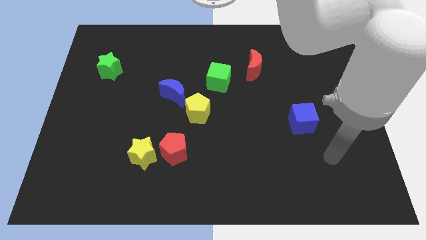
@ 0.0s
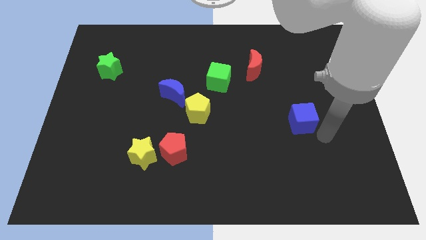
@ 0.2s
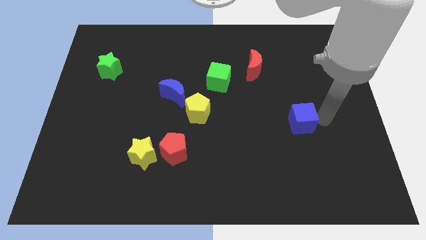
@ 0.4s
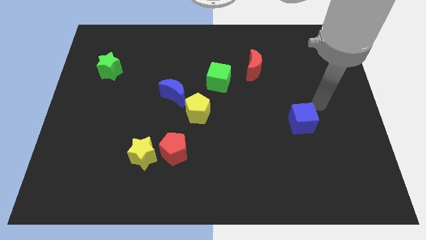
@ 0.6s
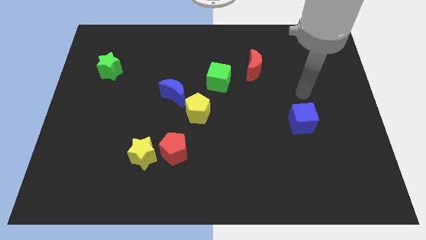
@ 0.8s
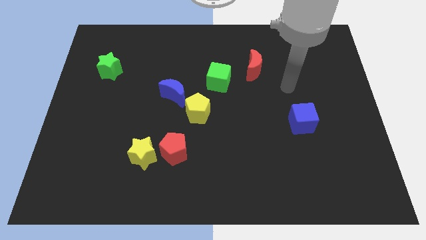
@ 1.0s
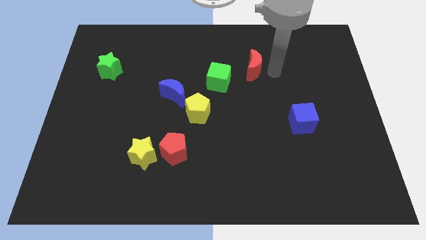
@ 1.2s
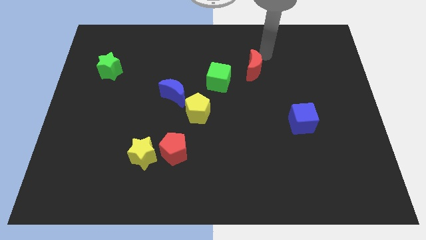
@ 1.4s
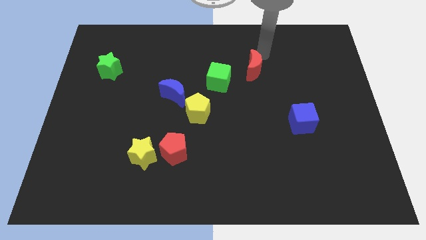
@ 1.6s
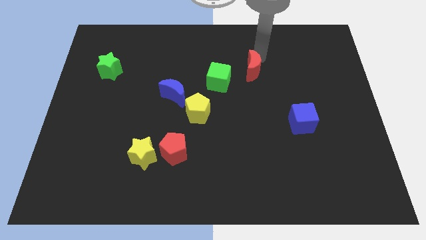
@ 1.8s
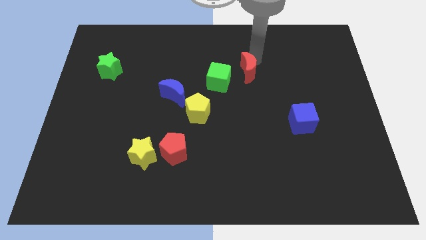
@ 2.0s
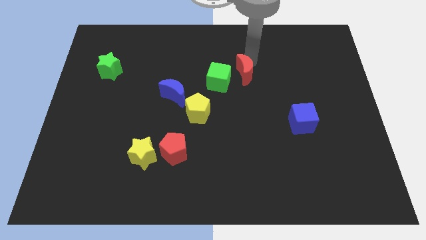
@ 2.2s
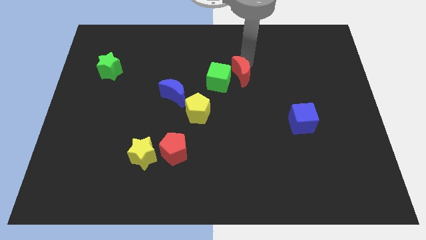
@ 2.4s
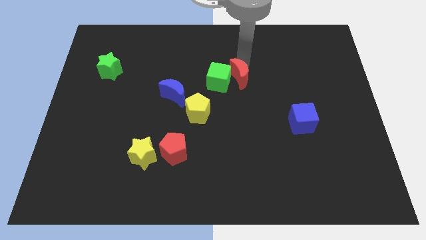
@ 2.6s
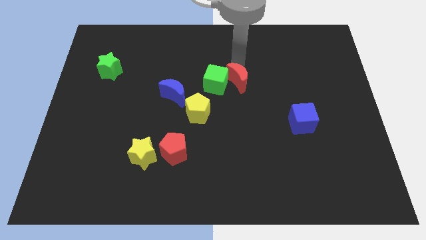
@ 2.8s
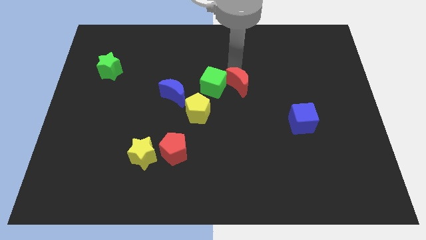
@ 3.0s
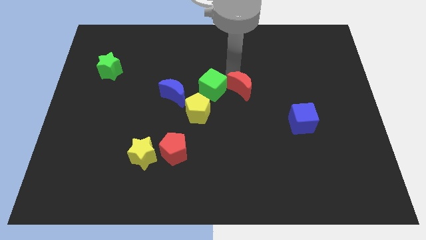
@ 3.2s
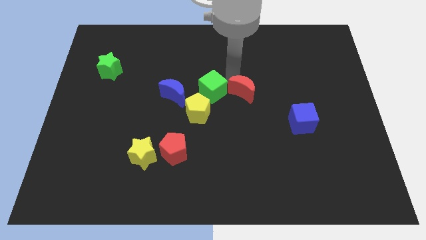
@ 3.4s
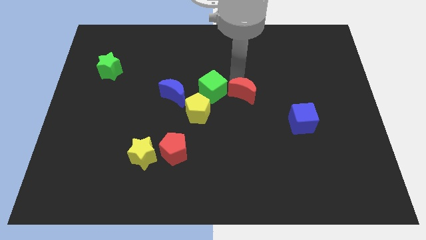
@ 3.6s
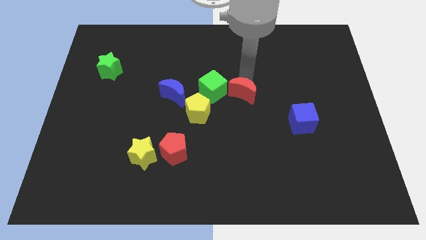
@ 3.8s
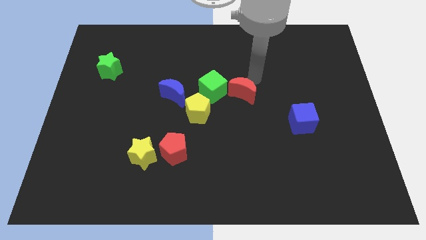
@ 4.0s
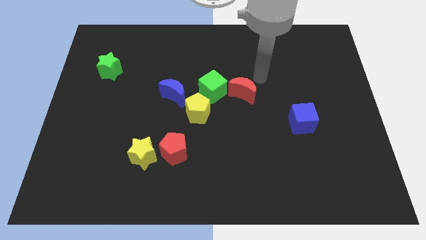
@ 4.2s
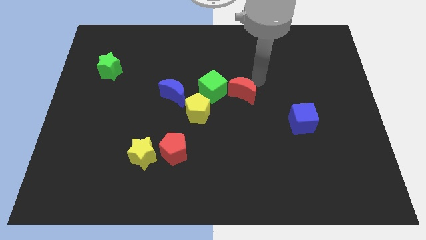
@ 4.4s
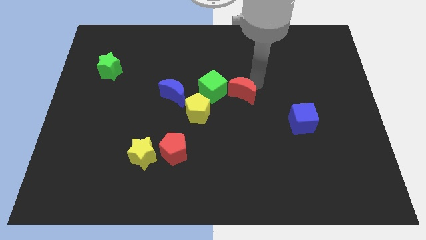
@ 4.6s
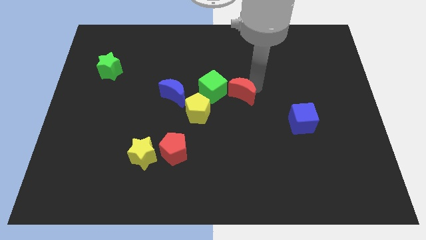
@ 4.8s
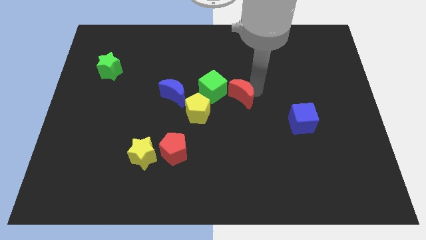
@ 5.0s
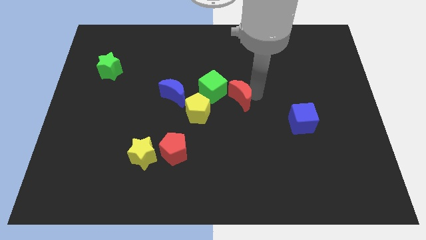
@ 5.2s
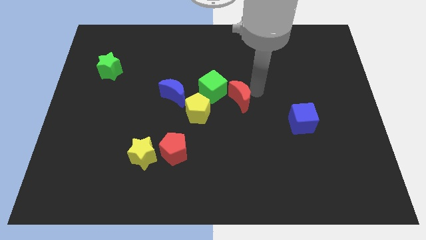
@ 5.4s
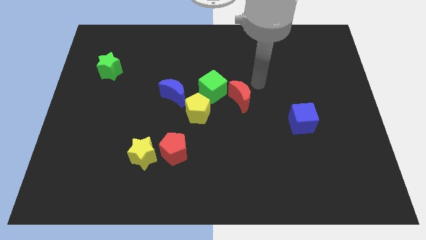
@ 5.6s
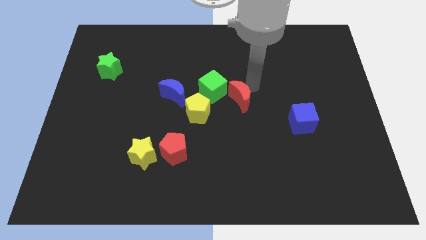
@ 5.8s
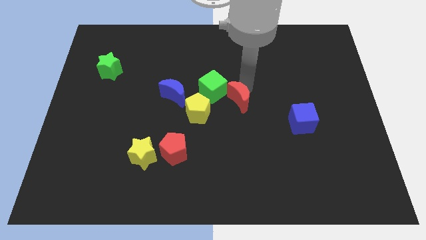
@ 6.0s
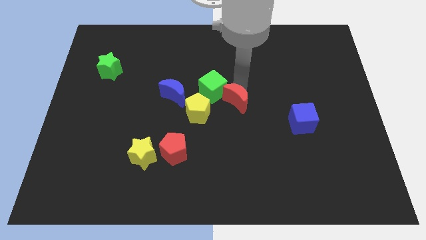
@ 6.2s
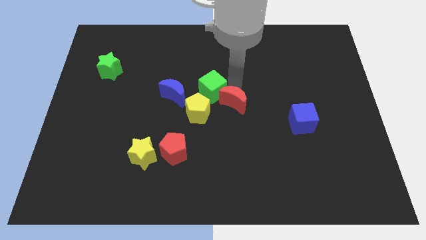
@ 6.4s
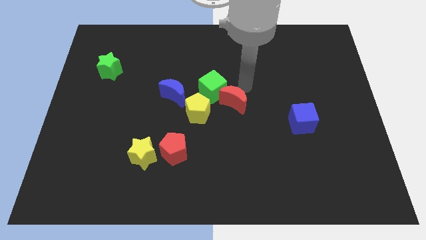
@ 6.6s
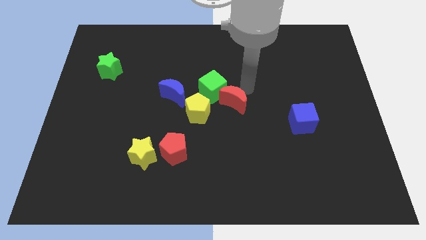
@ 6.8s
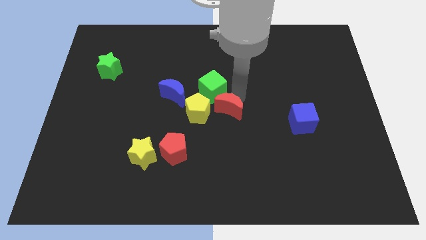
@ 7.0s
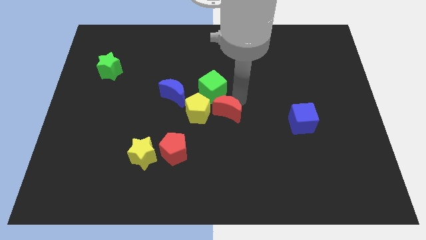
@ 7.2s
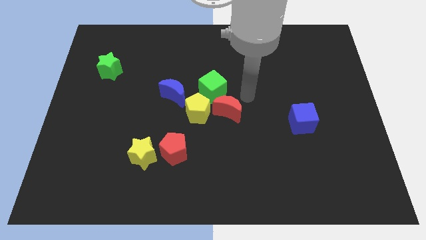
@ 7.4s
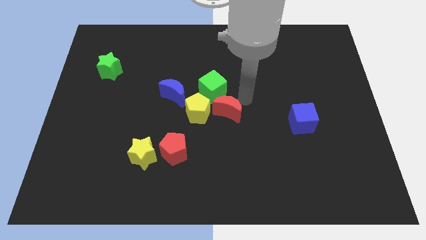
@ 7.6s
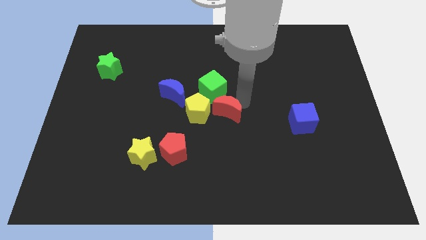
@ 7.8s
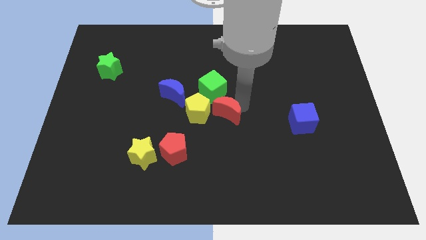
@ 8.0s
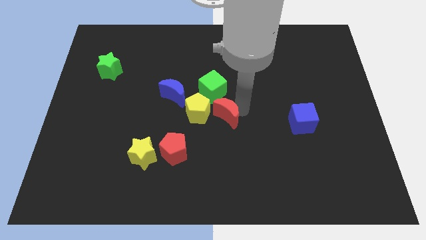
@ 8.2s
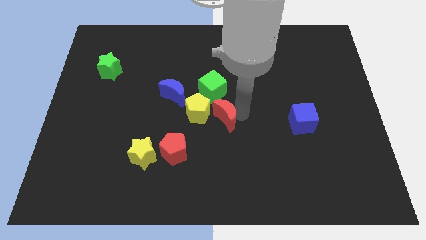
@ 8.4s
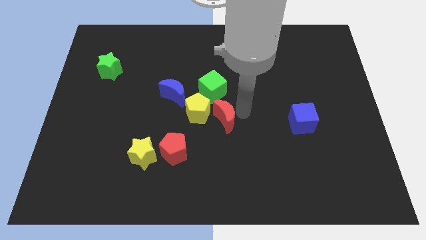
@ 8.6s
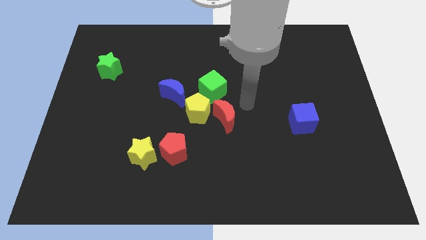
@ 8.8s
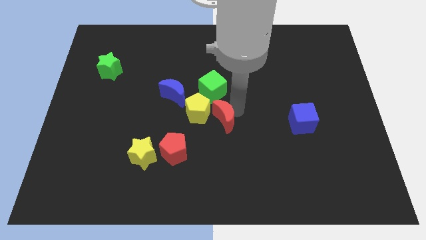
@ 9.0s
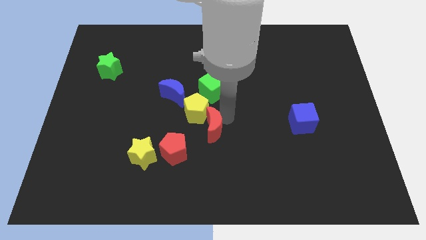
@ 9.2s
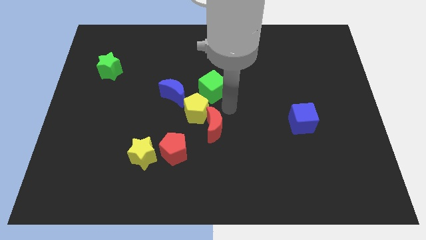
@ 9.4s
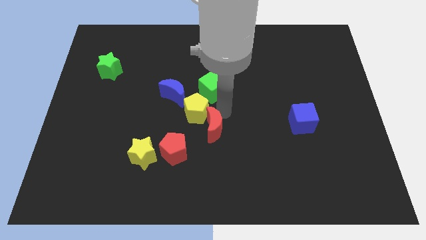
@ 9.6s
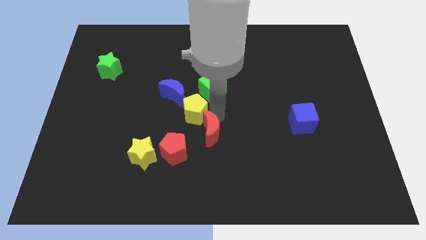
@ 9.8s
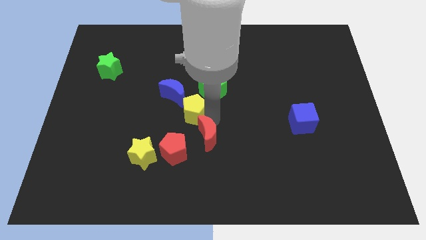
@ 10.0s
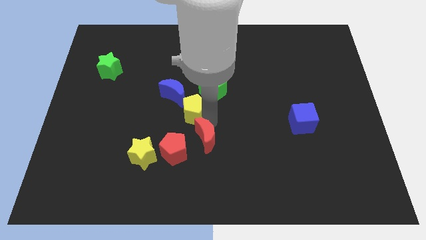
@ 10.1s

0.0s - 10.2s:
move the red moon to the right side of the yellow star

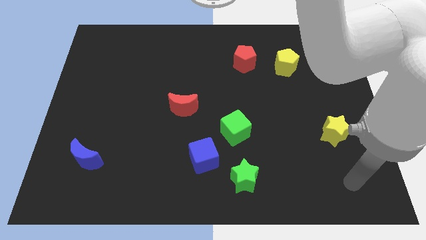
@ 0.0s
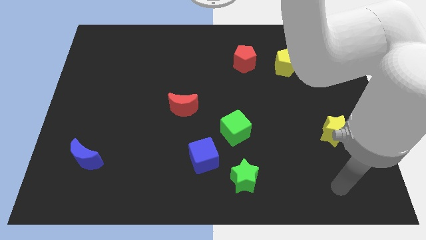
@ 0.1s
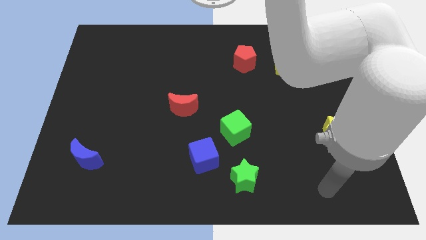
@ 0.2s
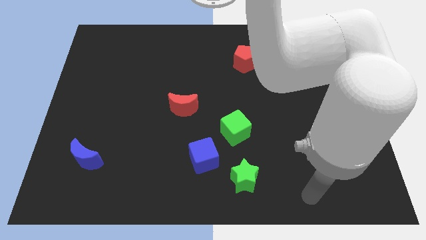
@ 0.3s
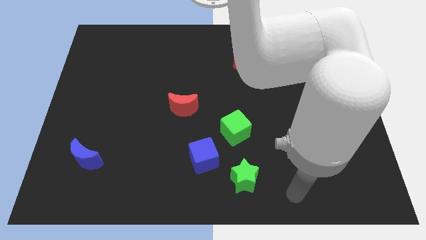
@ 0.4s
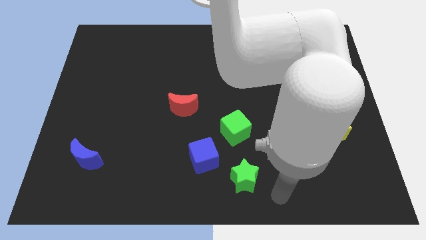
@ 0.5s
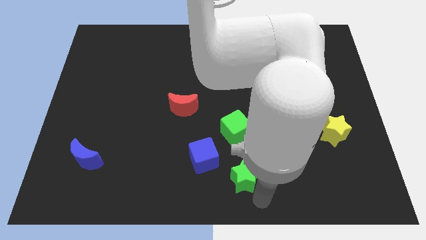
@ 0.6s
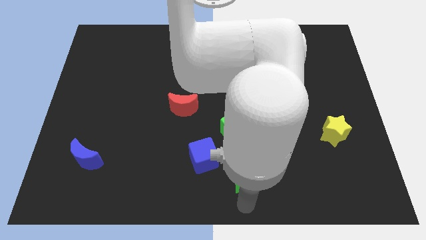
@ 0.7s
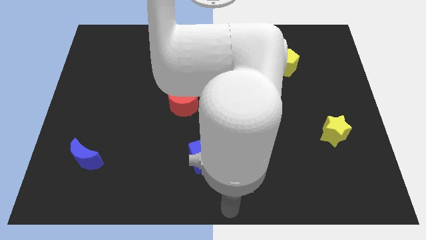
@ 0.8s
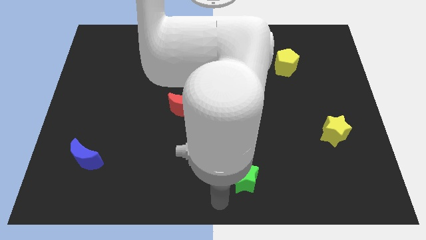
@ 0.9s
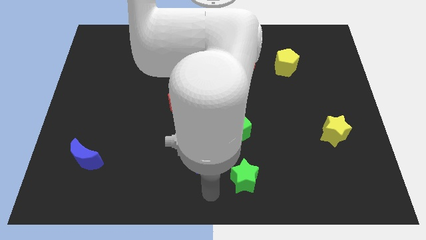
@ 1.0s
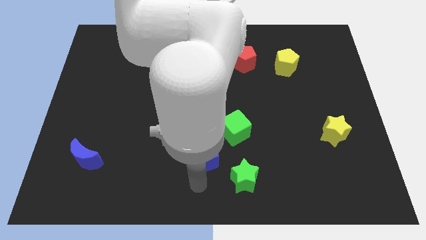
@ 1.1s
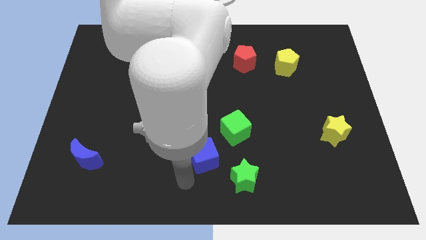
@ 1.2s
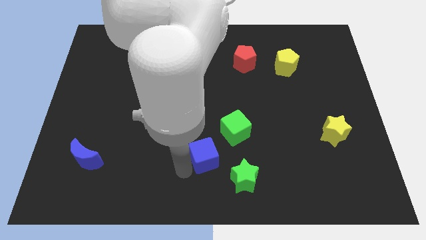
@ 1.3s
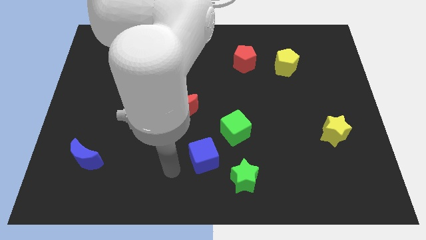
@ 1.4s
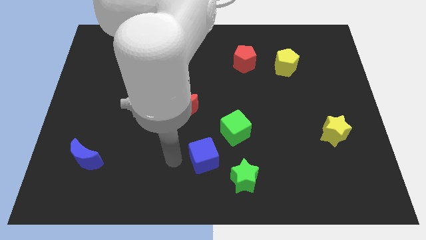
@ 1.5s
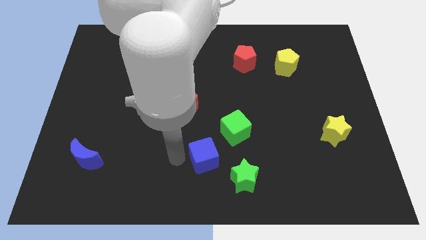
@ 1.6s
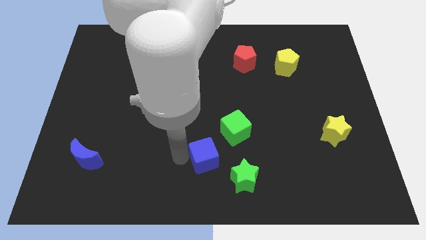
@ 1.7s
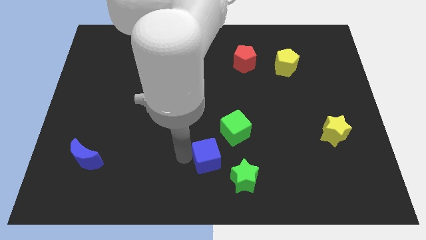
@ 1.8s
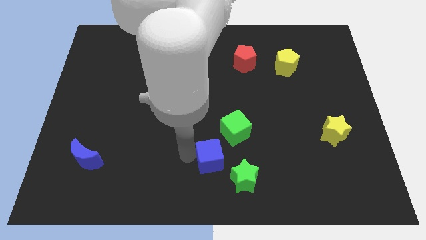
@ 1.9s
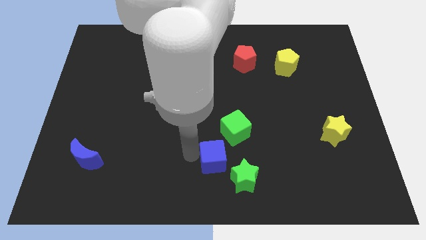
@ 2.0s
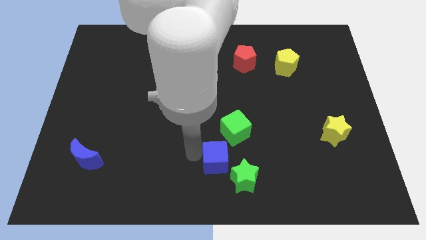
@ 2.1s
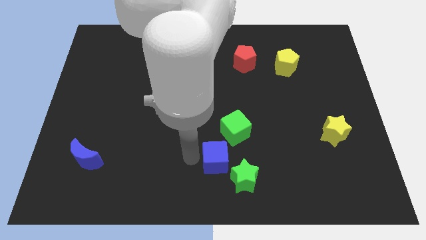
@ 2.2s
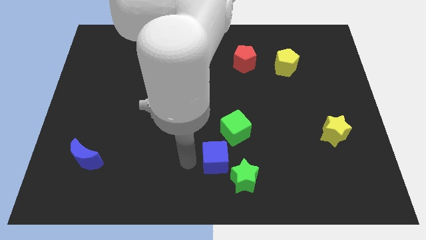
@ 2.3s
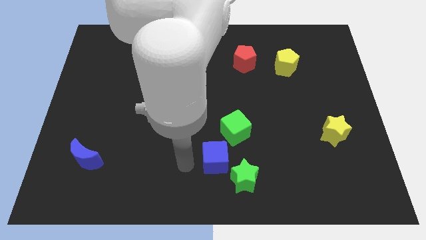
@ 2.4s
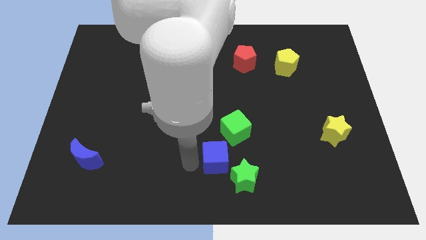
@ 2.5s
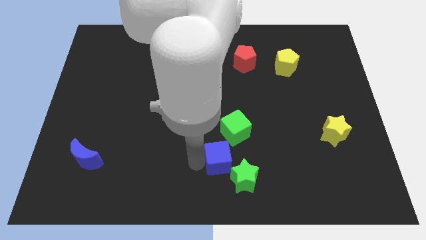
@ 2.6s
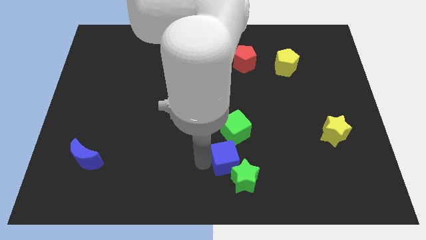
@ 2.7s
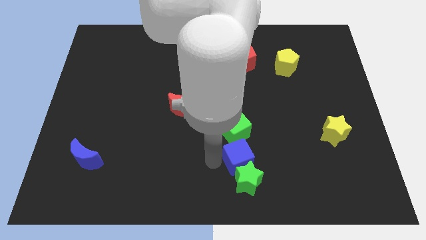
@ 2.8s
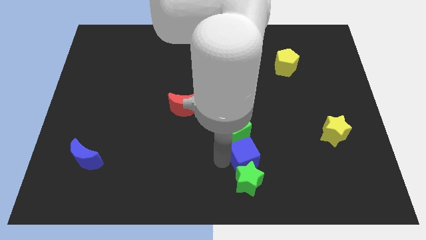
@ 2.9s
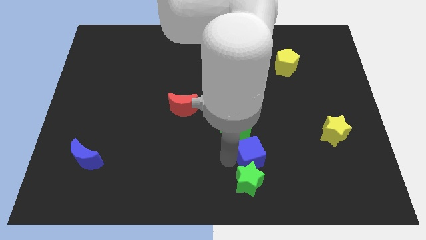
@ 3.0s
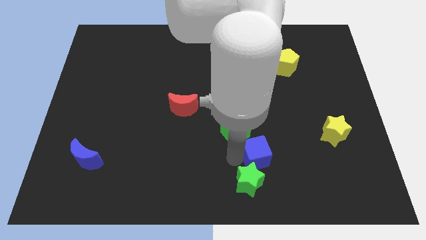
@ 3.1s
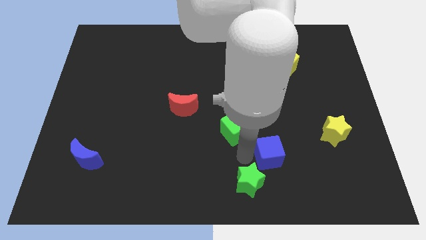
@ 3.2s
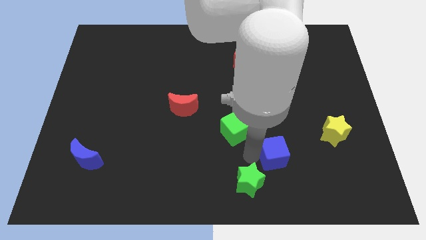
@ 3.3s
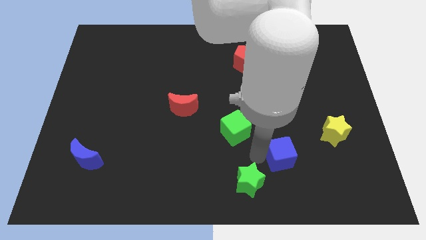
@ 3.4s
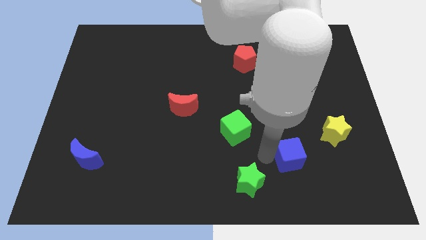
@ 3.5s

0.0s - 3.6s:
slide the blue cube to the bottom left of the yellow star
